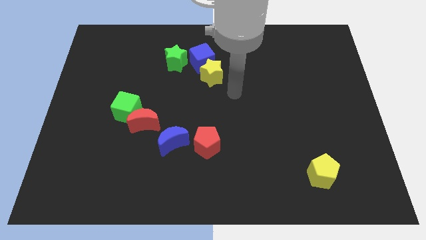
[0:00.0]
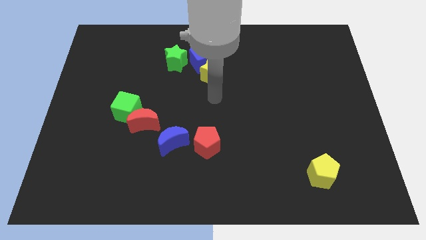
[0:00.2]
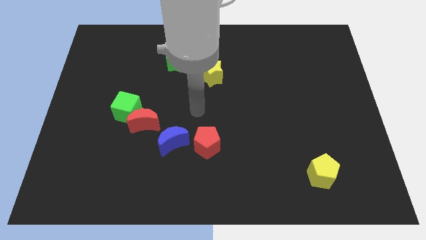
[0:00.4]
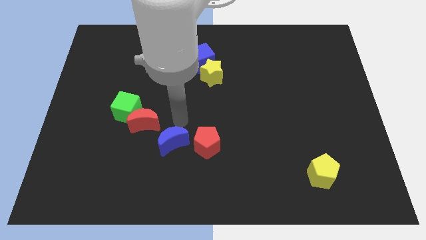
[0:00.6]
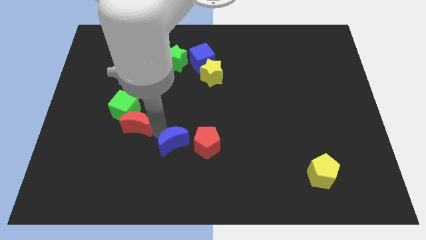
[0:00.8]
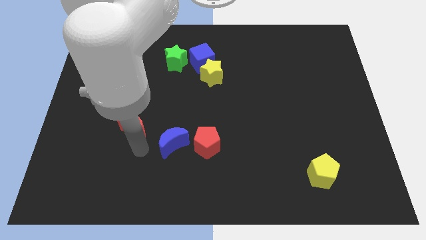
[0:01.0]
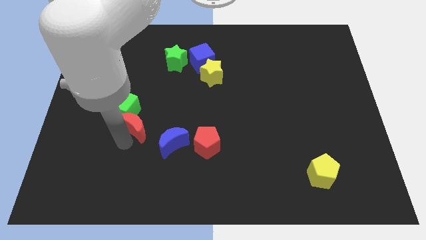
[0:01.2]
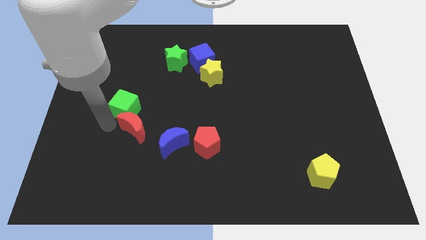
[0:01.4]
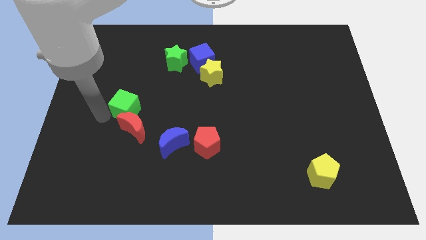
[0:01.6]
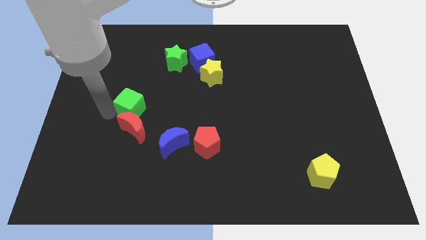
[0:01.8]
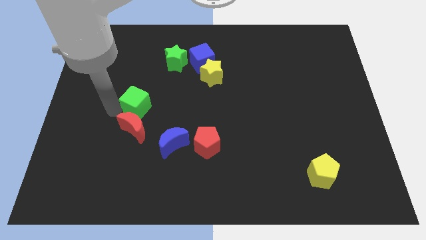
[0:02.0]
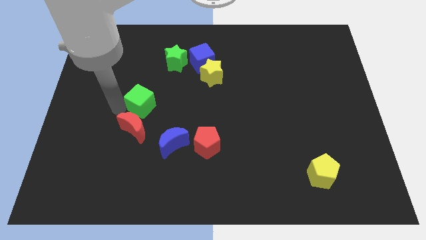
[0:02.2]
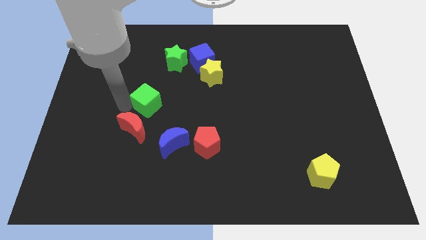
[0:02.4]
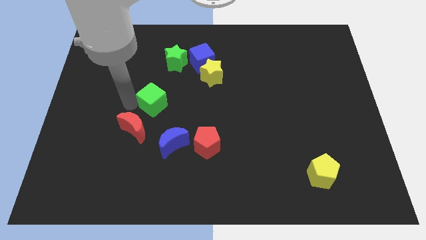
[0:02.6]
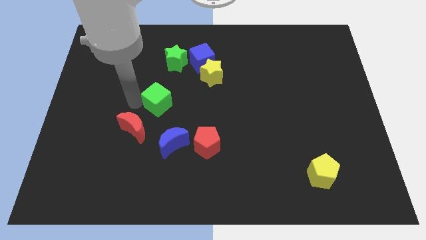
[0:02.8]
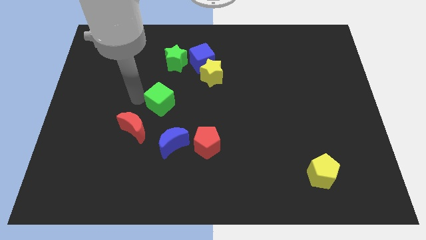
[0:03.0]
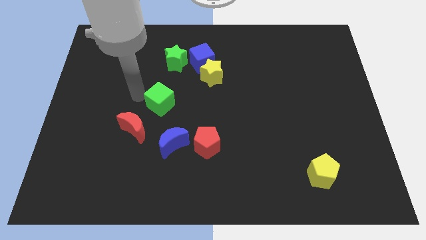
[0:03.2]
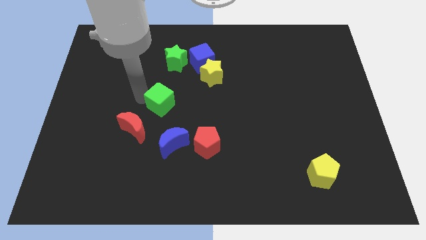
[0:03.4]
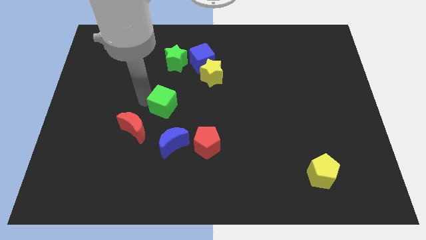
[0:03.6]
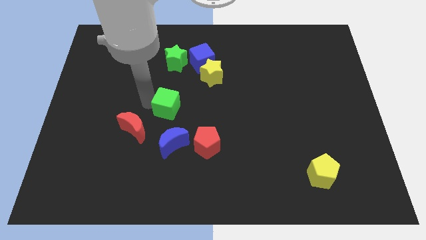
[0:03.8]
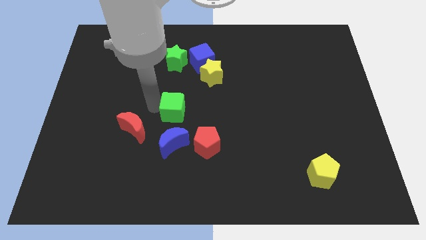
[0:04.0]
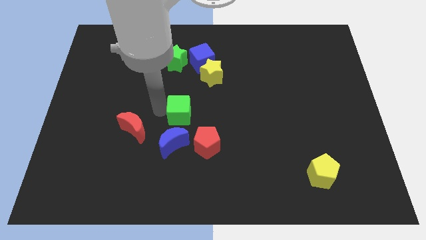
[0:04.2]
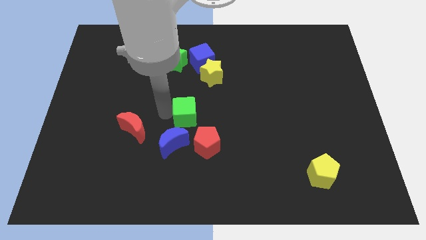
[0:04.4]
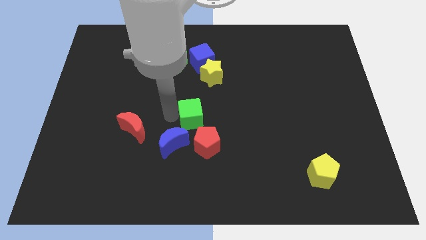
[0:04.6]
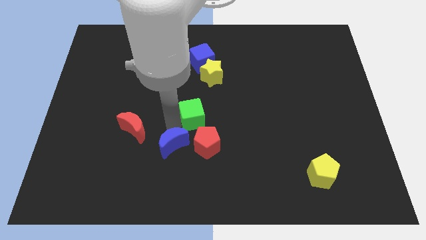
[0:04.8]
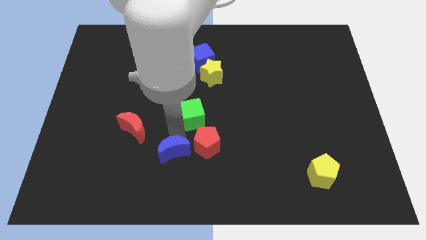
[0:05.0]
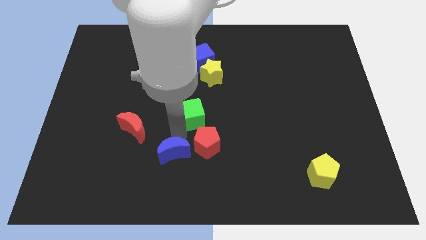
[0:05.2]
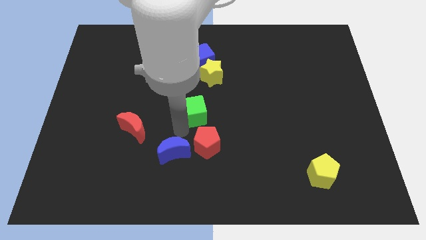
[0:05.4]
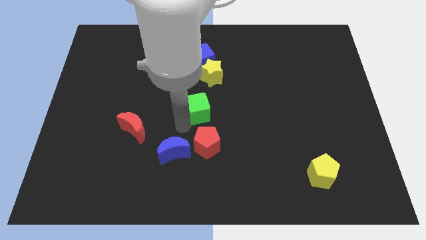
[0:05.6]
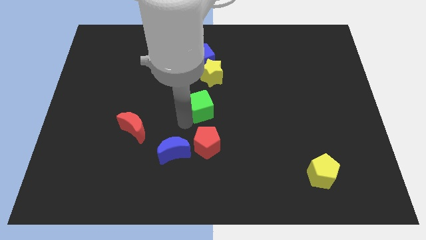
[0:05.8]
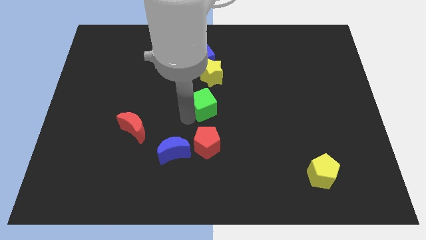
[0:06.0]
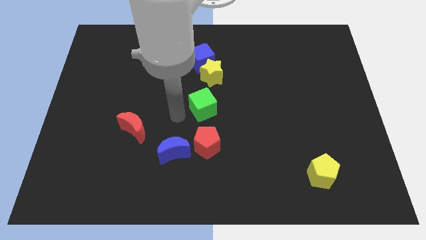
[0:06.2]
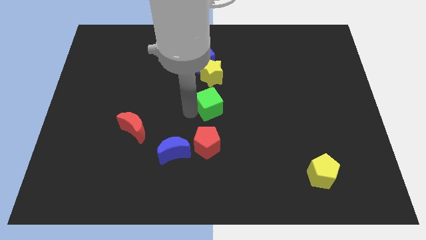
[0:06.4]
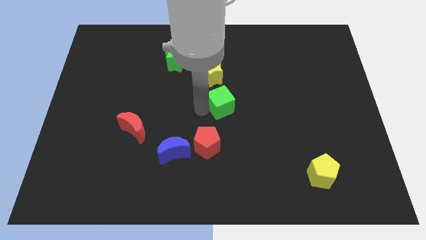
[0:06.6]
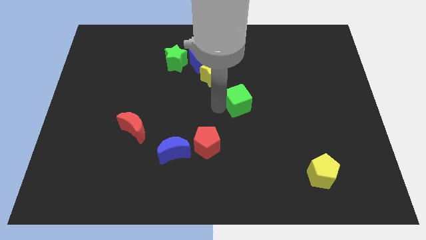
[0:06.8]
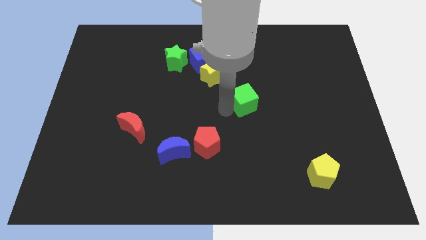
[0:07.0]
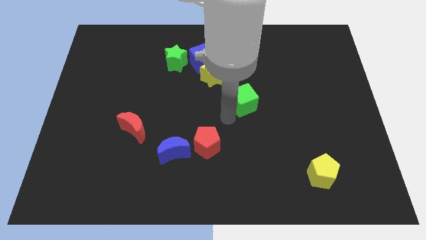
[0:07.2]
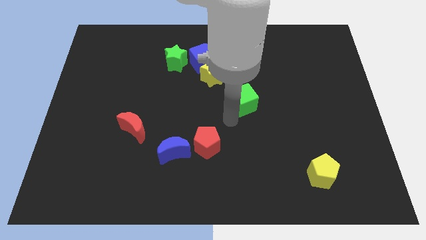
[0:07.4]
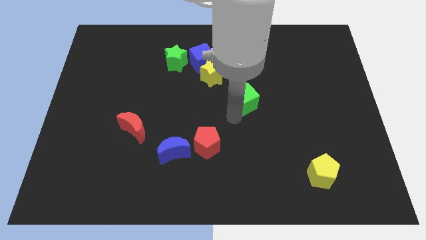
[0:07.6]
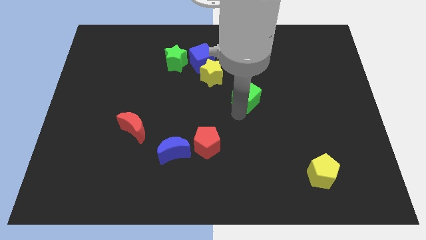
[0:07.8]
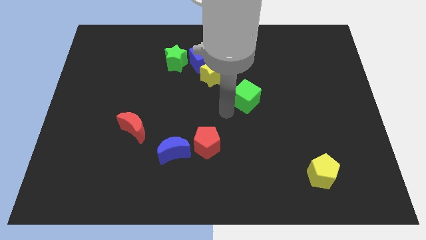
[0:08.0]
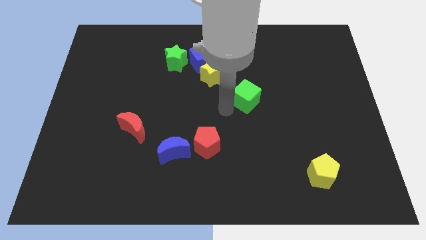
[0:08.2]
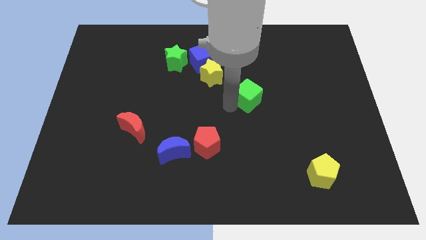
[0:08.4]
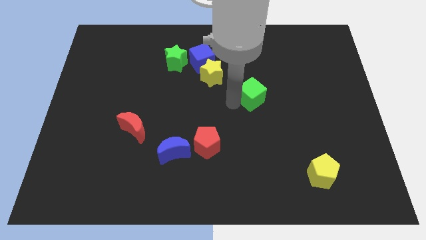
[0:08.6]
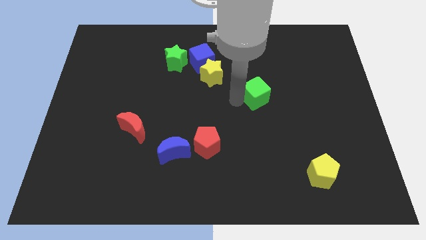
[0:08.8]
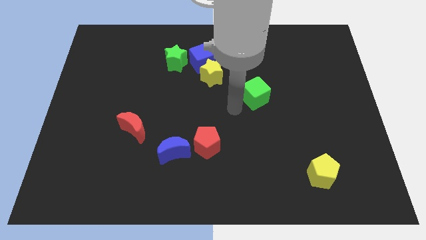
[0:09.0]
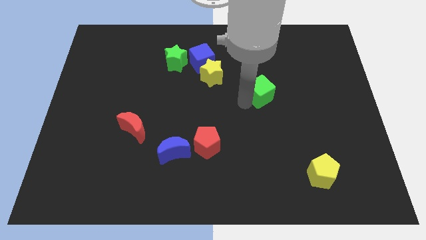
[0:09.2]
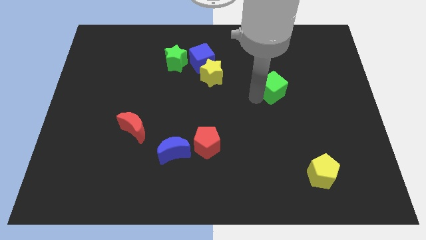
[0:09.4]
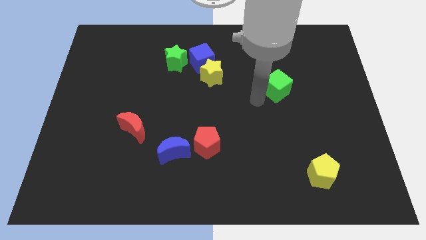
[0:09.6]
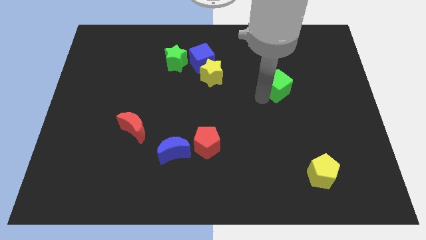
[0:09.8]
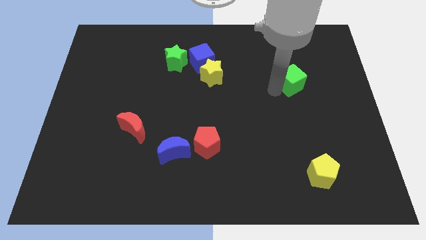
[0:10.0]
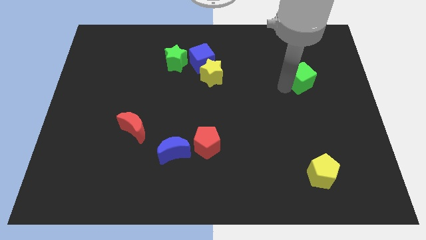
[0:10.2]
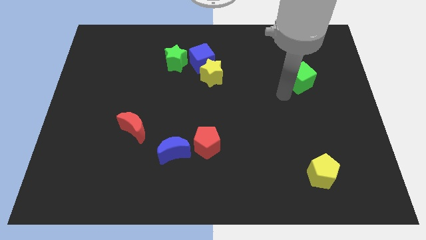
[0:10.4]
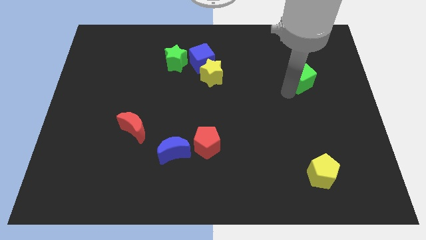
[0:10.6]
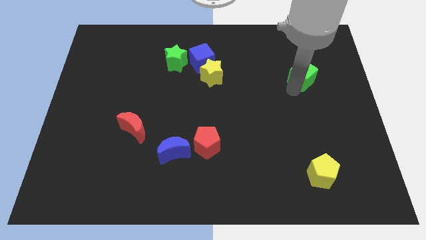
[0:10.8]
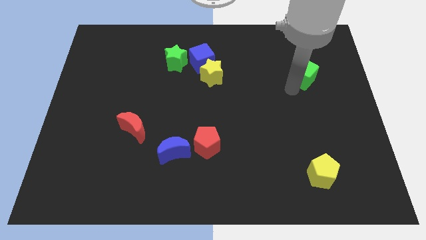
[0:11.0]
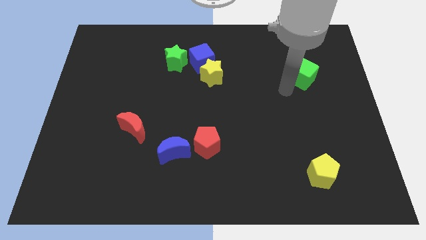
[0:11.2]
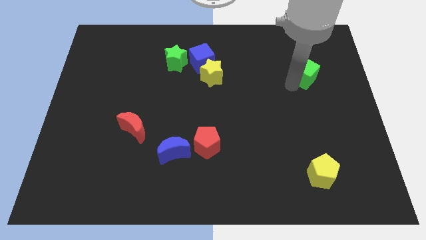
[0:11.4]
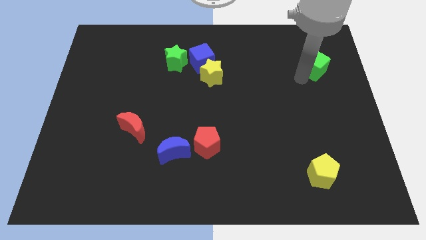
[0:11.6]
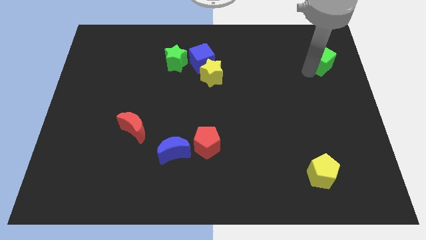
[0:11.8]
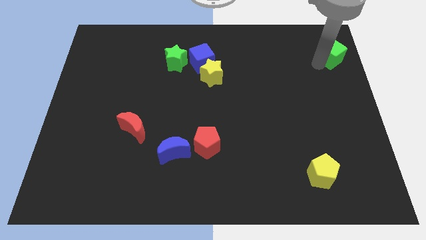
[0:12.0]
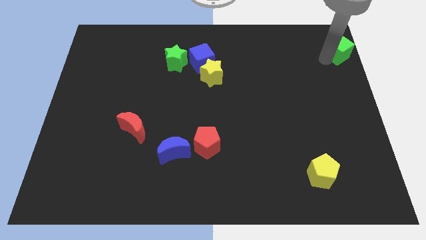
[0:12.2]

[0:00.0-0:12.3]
put the green cube to the top right

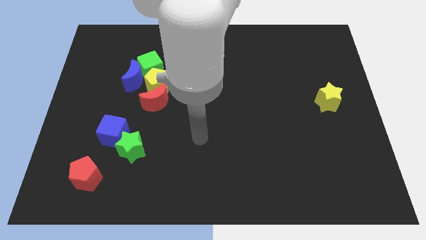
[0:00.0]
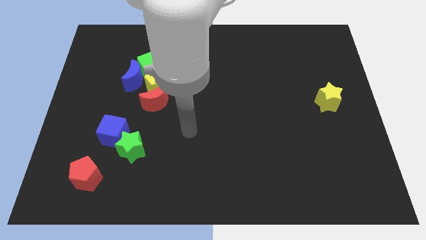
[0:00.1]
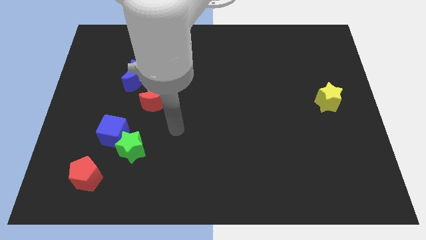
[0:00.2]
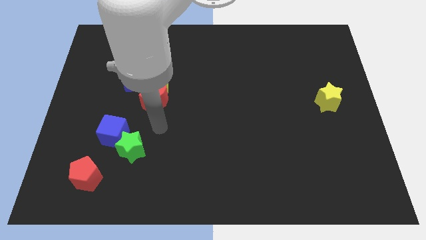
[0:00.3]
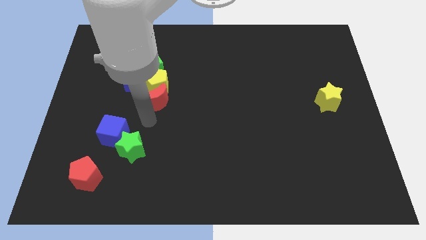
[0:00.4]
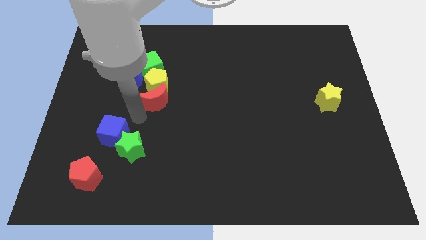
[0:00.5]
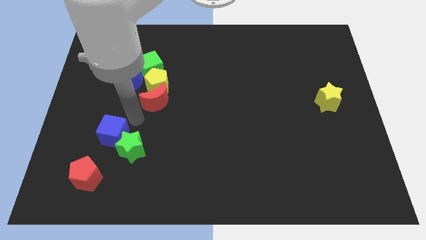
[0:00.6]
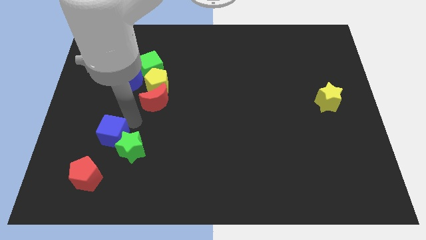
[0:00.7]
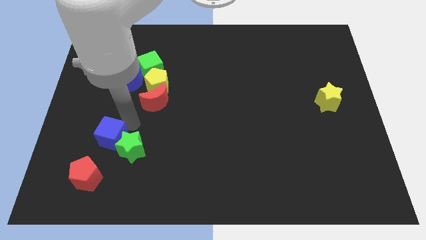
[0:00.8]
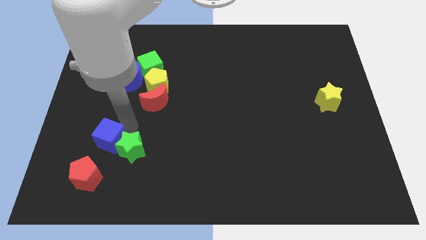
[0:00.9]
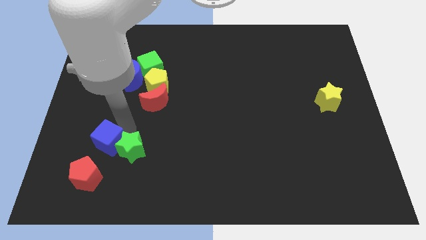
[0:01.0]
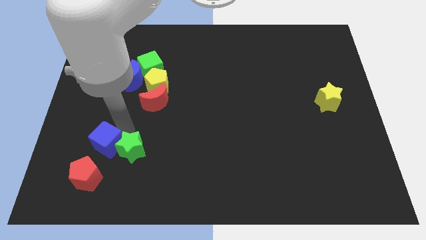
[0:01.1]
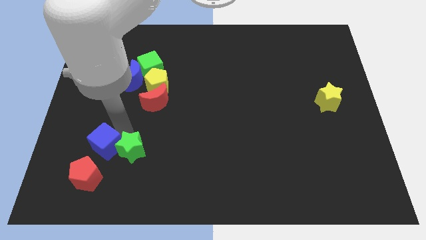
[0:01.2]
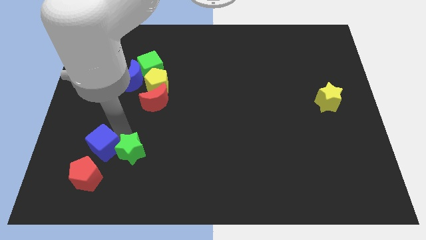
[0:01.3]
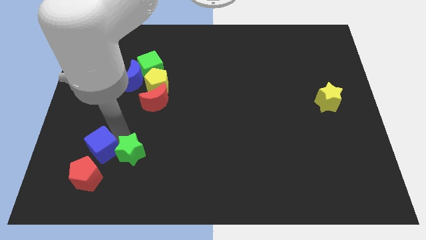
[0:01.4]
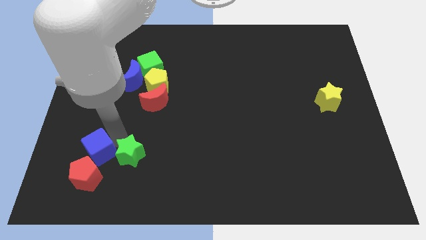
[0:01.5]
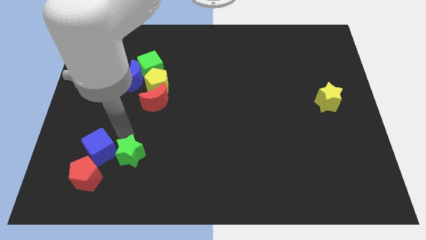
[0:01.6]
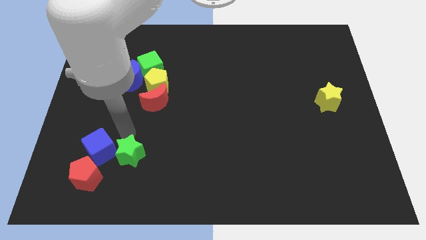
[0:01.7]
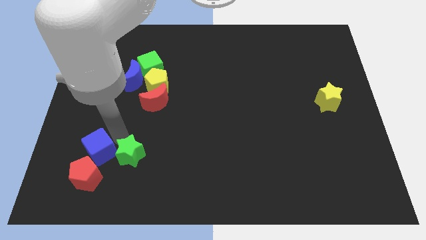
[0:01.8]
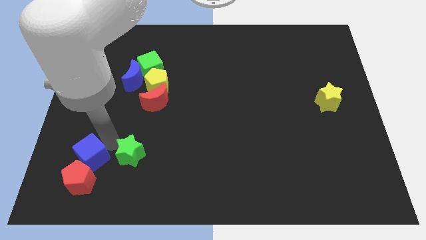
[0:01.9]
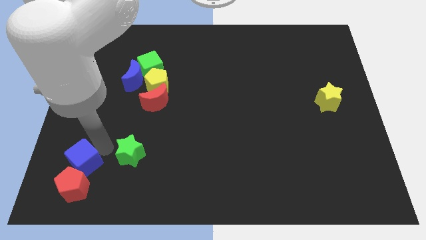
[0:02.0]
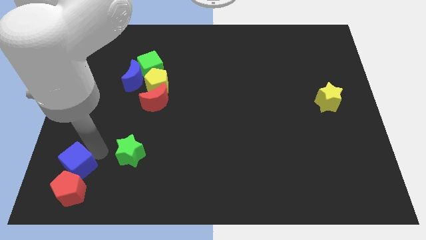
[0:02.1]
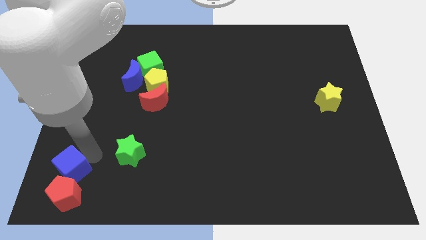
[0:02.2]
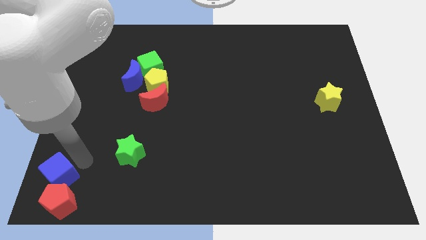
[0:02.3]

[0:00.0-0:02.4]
put the blue cube to the bottom left of the board
